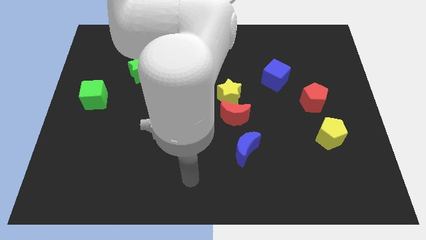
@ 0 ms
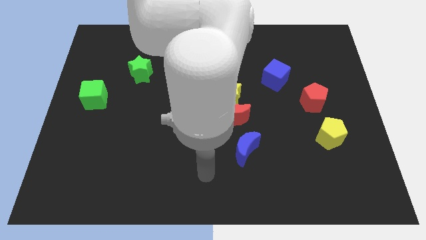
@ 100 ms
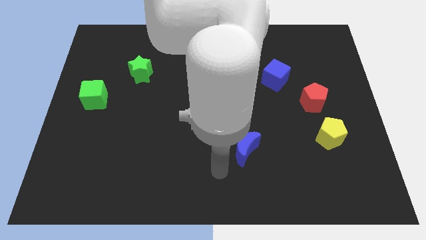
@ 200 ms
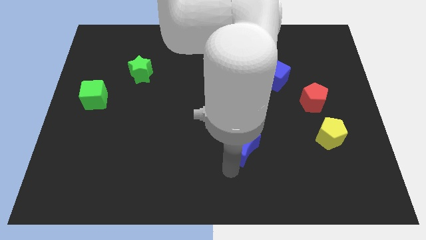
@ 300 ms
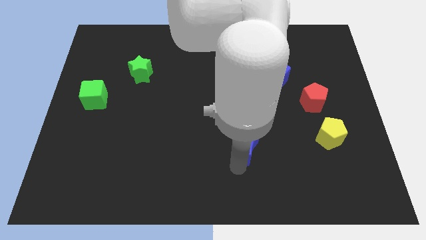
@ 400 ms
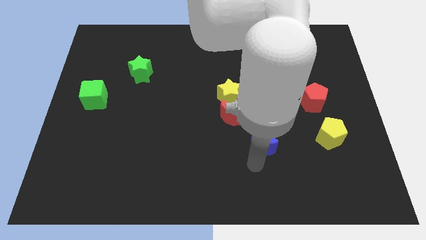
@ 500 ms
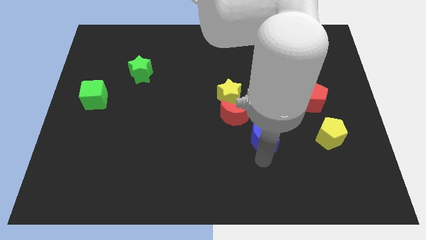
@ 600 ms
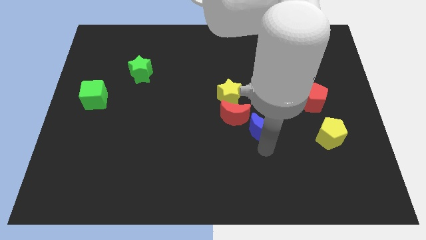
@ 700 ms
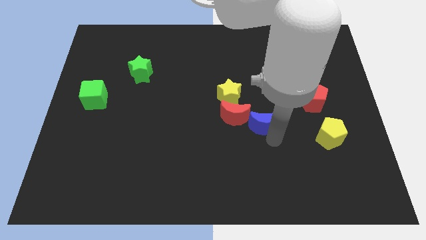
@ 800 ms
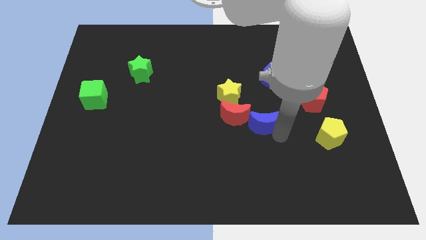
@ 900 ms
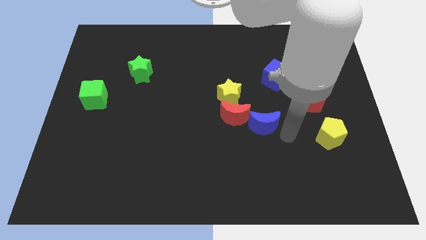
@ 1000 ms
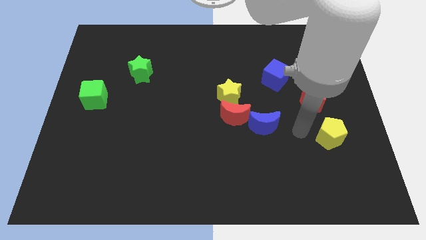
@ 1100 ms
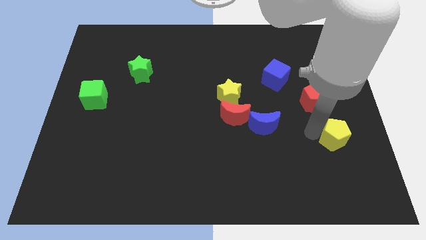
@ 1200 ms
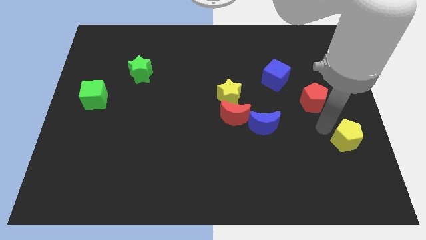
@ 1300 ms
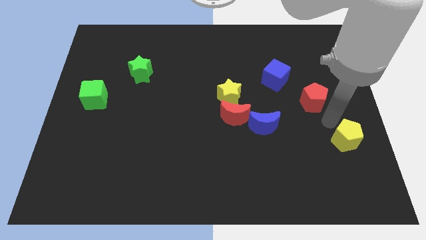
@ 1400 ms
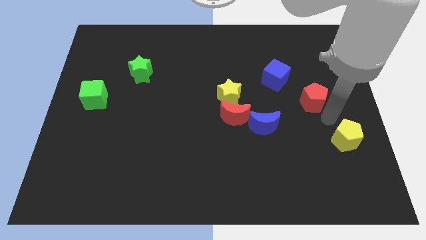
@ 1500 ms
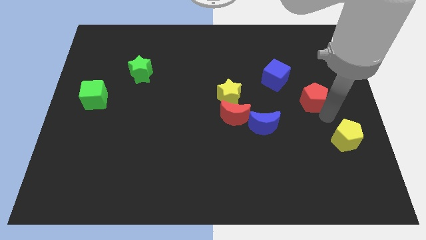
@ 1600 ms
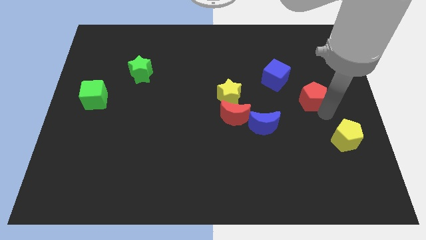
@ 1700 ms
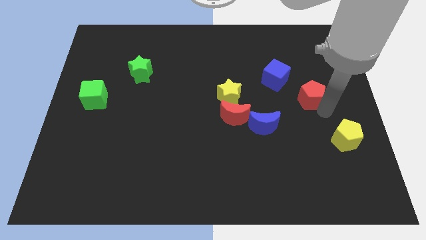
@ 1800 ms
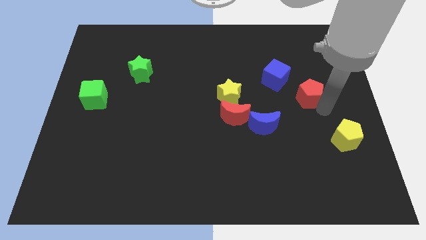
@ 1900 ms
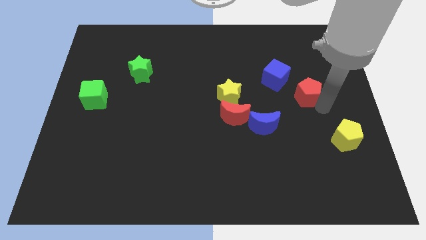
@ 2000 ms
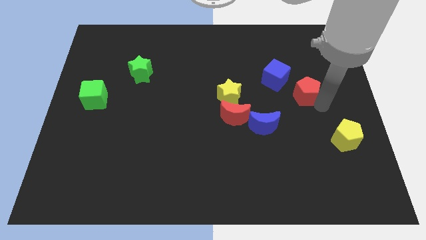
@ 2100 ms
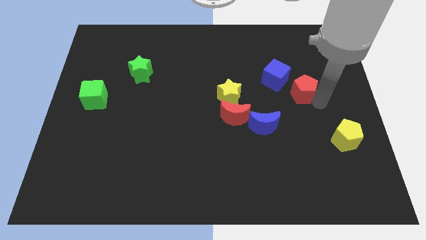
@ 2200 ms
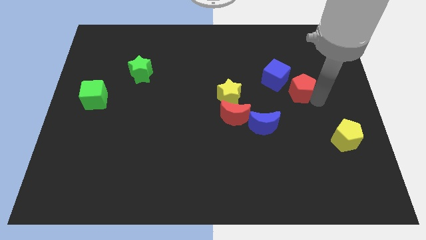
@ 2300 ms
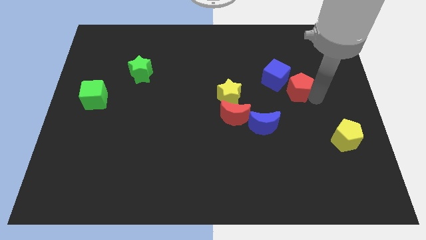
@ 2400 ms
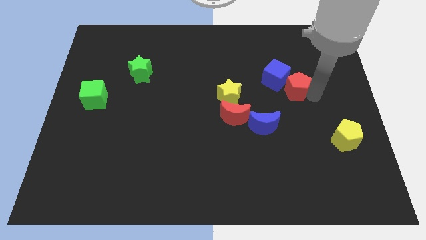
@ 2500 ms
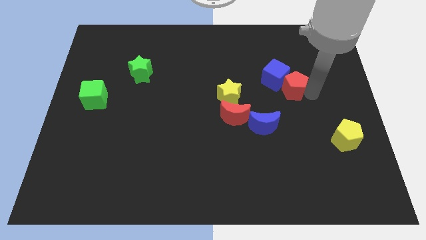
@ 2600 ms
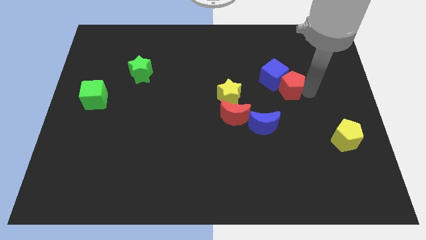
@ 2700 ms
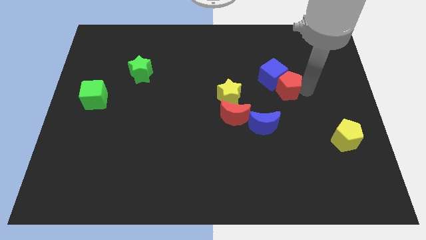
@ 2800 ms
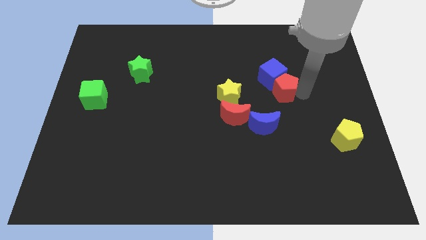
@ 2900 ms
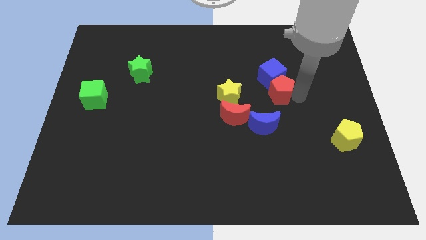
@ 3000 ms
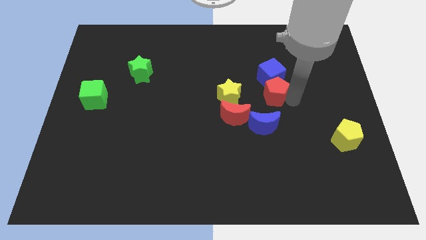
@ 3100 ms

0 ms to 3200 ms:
move the red pentagon upwards and left diagonally a bit

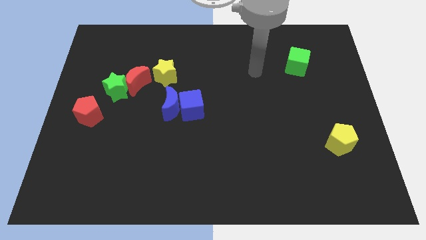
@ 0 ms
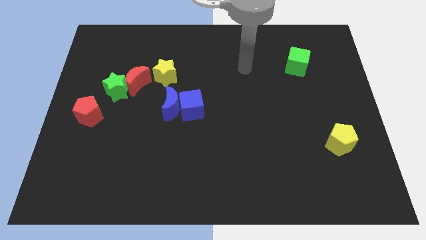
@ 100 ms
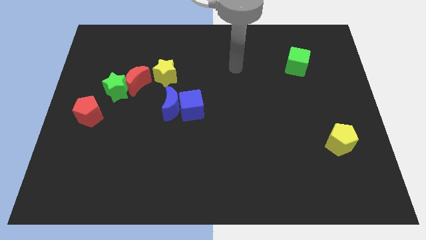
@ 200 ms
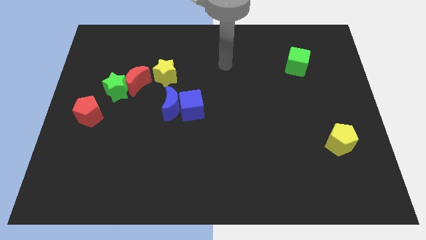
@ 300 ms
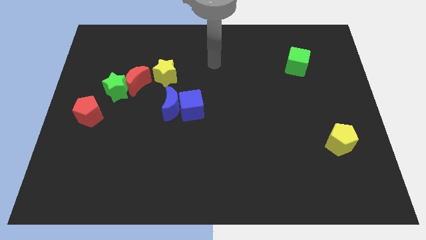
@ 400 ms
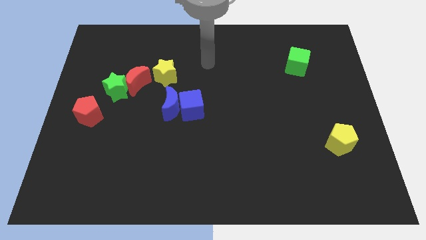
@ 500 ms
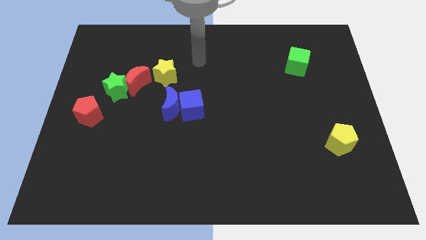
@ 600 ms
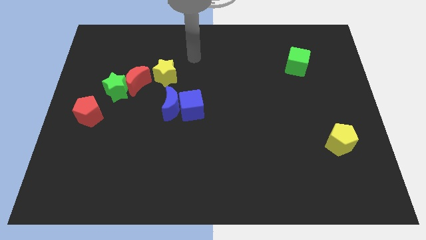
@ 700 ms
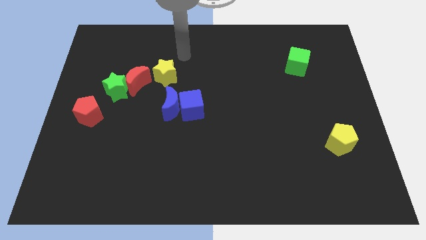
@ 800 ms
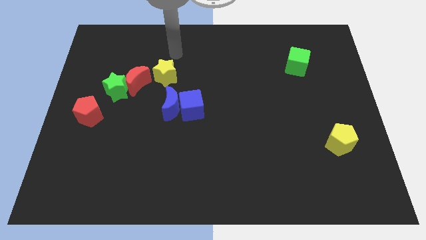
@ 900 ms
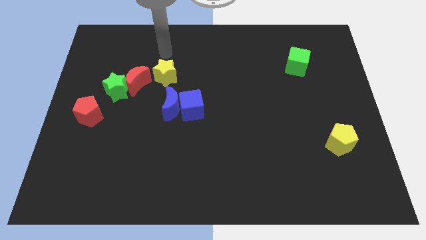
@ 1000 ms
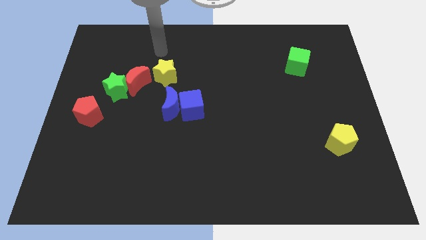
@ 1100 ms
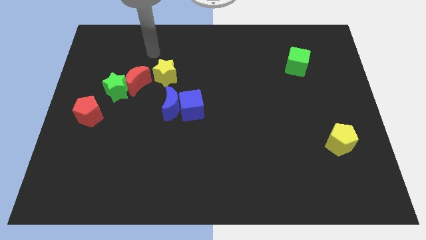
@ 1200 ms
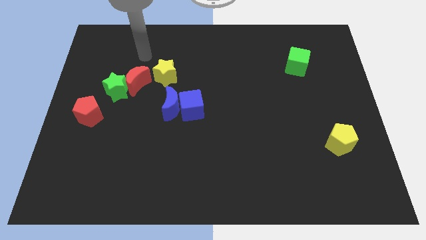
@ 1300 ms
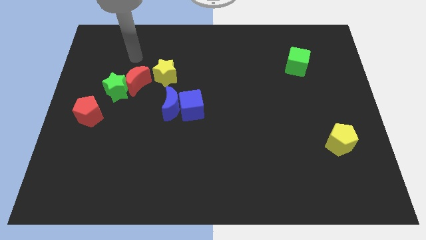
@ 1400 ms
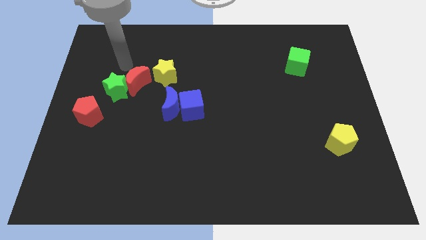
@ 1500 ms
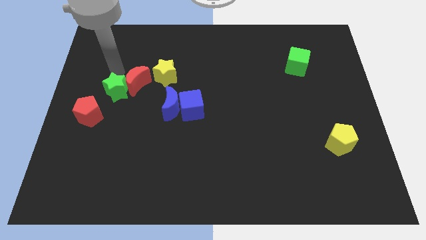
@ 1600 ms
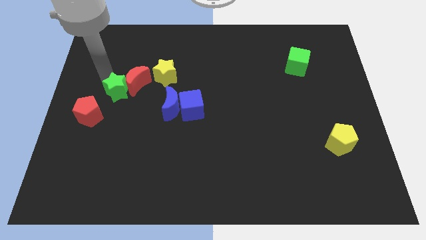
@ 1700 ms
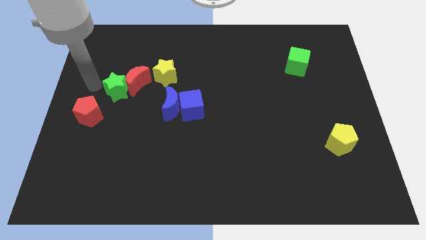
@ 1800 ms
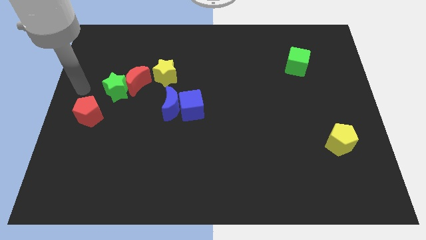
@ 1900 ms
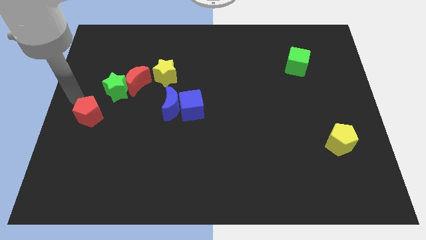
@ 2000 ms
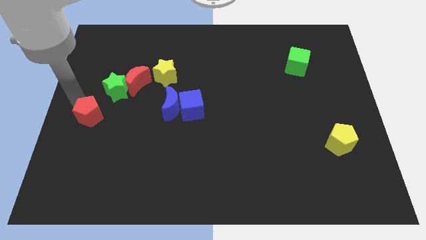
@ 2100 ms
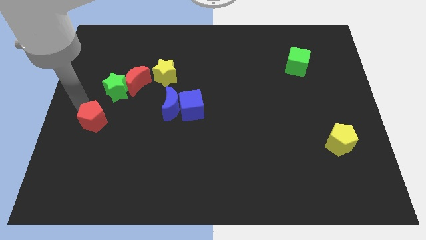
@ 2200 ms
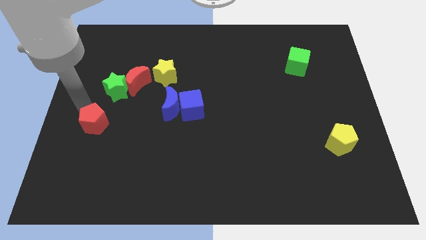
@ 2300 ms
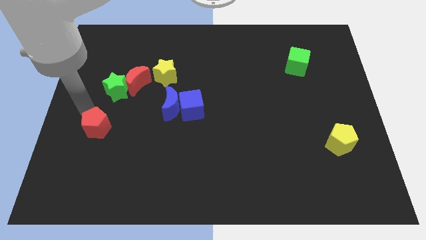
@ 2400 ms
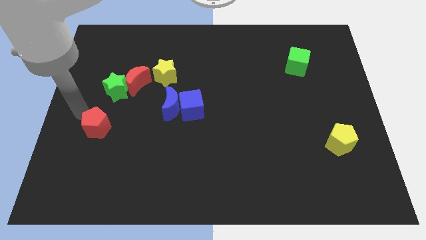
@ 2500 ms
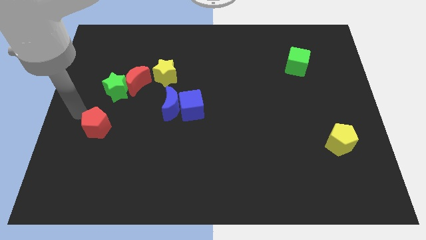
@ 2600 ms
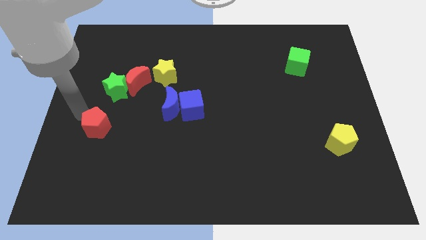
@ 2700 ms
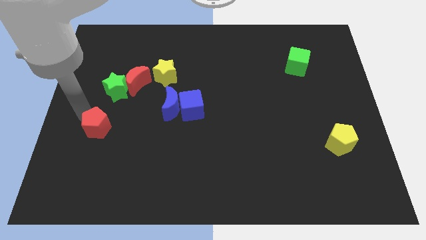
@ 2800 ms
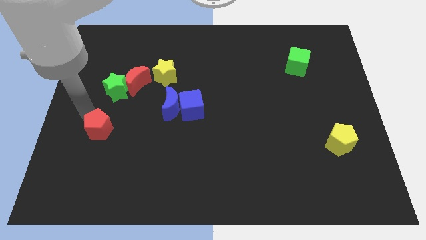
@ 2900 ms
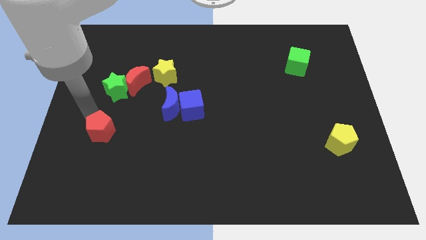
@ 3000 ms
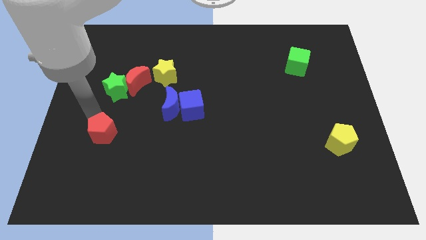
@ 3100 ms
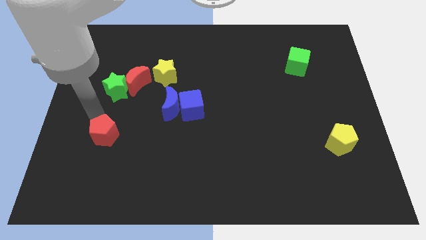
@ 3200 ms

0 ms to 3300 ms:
move the red pentagon down and then to the right a bit

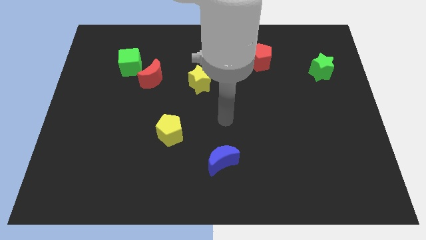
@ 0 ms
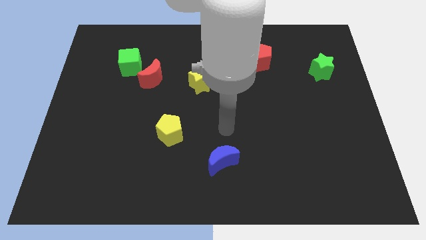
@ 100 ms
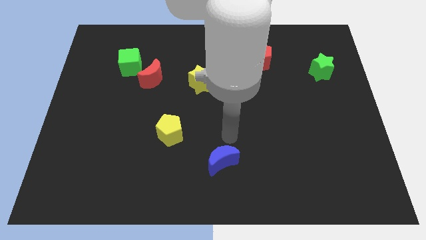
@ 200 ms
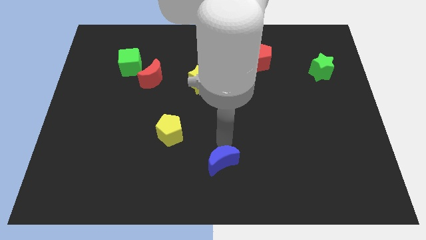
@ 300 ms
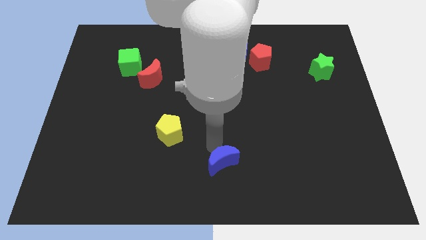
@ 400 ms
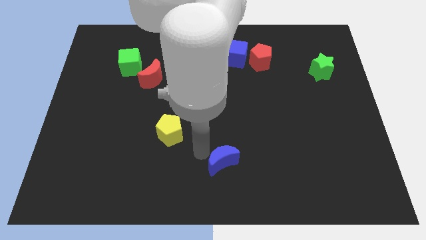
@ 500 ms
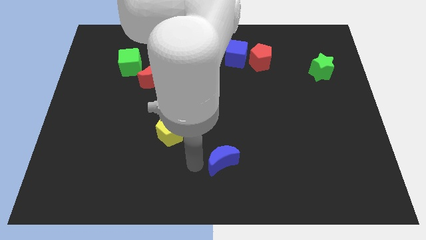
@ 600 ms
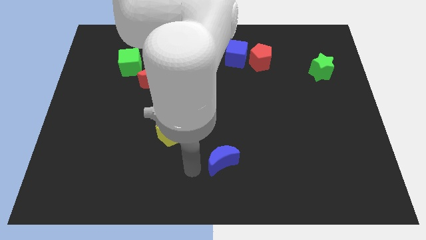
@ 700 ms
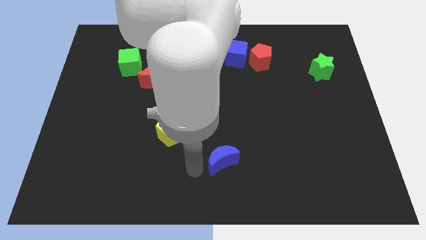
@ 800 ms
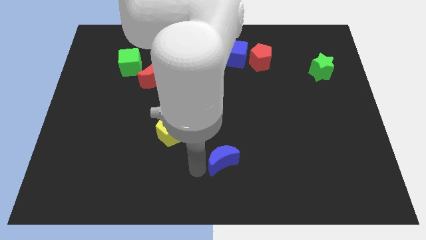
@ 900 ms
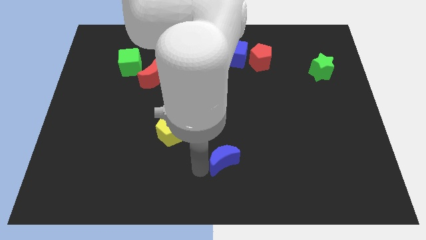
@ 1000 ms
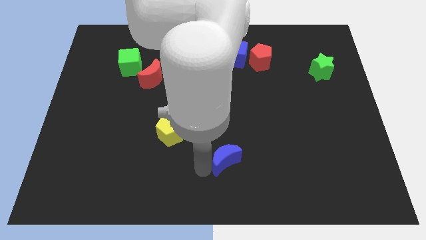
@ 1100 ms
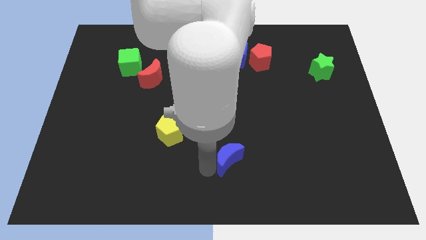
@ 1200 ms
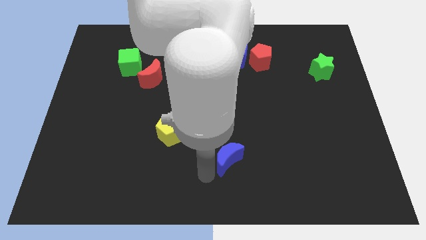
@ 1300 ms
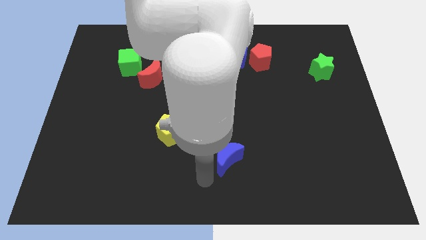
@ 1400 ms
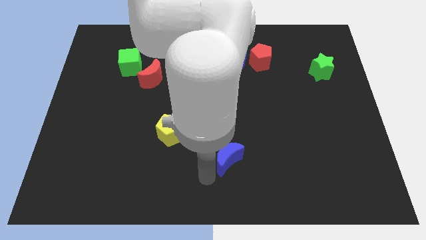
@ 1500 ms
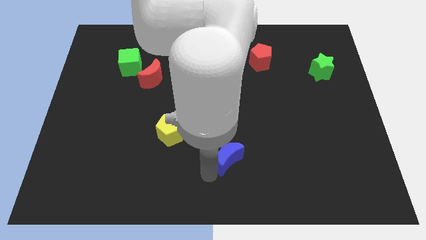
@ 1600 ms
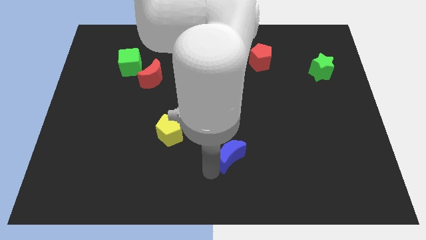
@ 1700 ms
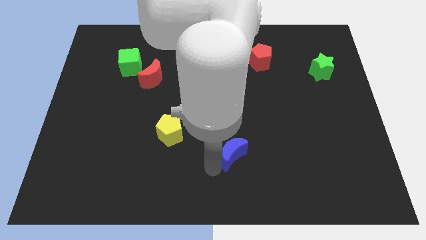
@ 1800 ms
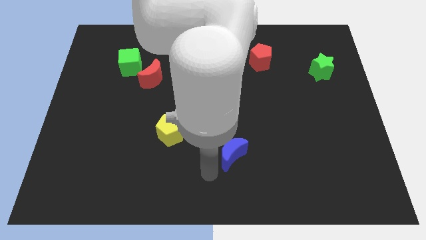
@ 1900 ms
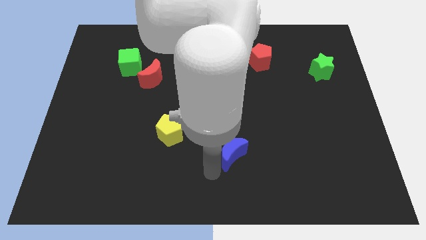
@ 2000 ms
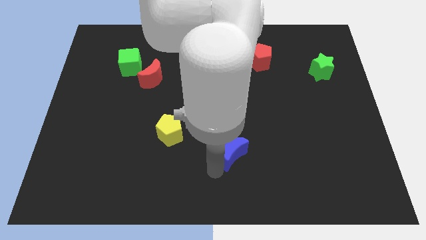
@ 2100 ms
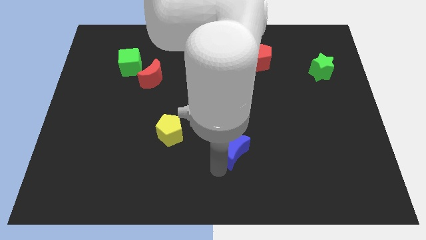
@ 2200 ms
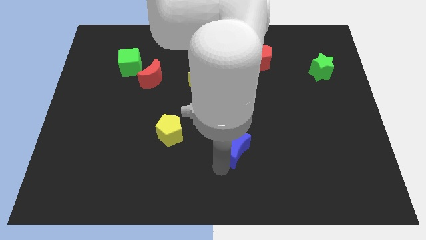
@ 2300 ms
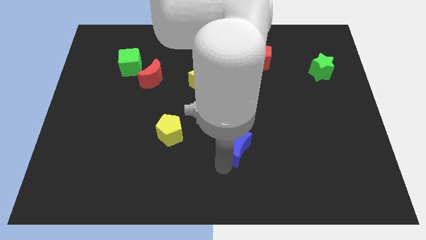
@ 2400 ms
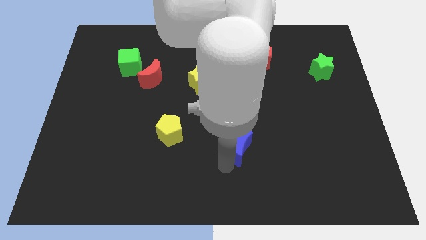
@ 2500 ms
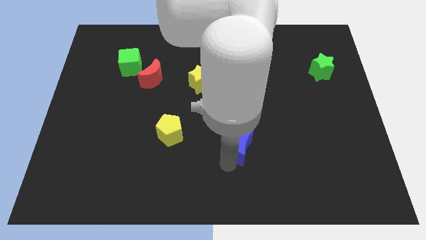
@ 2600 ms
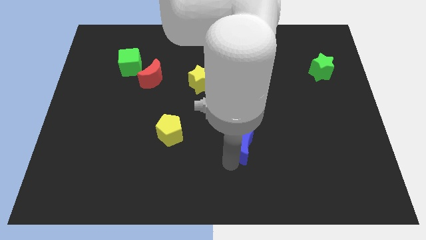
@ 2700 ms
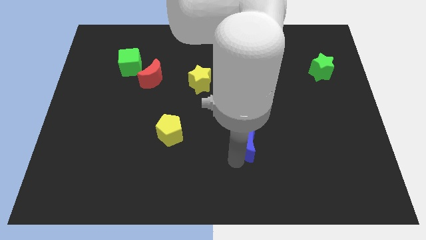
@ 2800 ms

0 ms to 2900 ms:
slightly push the blue moon upwards and then to the right
